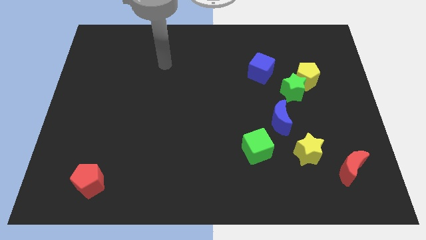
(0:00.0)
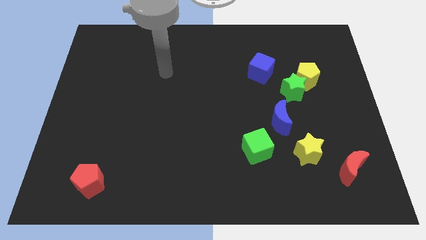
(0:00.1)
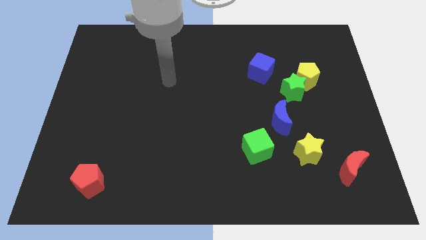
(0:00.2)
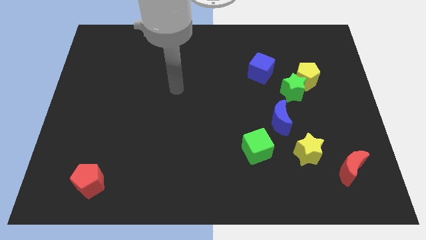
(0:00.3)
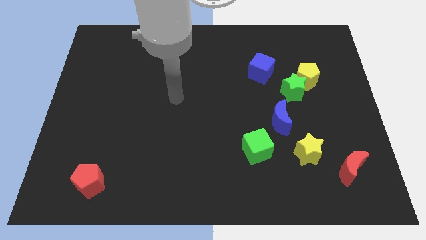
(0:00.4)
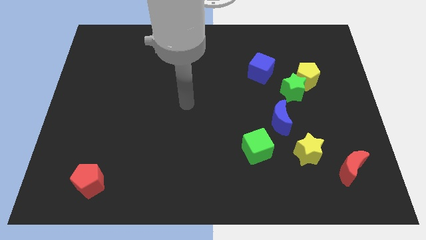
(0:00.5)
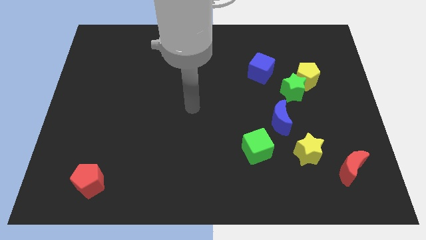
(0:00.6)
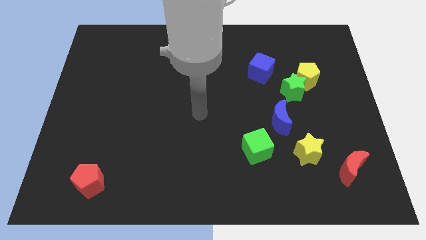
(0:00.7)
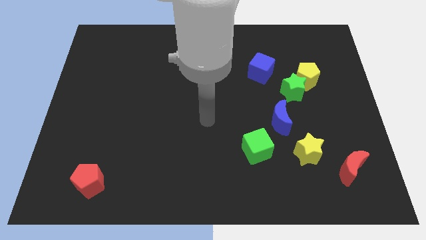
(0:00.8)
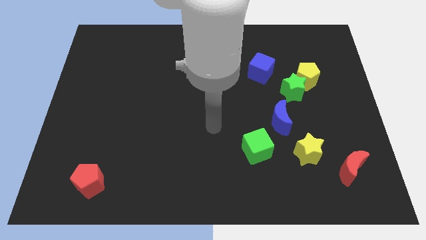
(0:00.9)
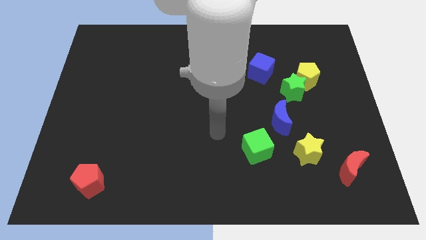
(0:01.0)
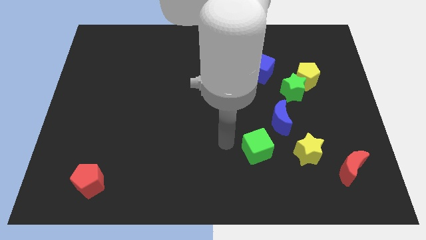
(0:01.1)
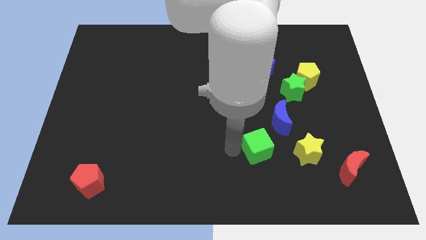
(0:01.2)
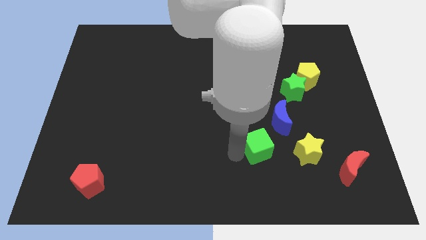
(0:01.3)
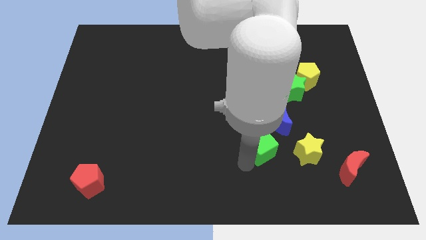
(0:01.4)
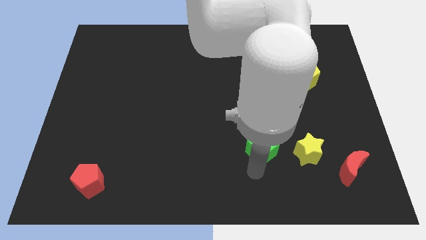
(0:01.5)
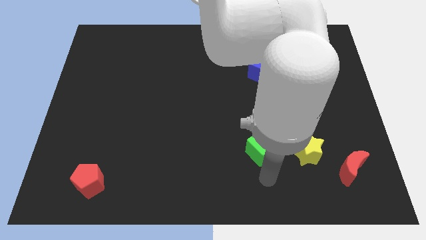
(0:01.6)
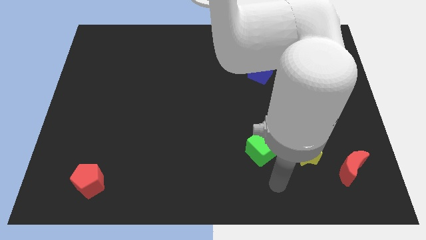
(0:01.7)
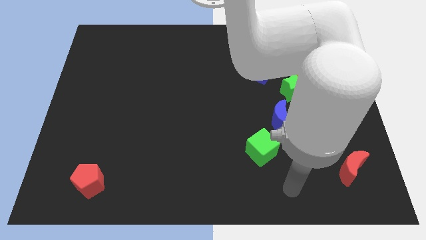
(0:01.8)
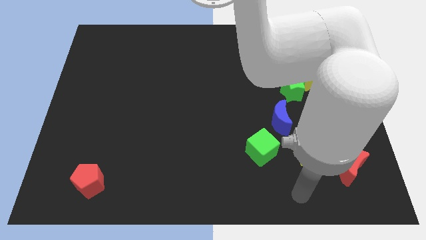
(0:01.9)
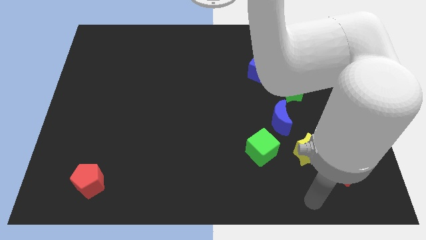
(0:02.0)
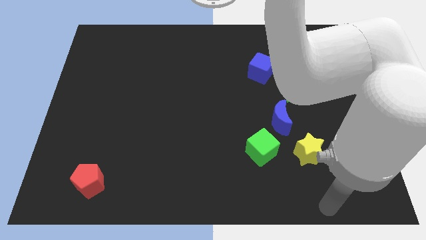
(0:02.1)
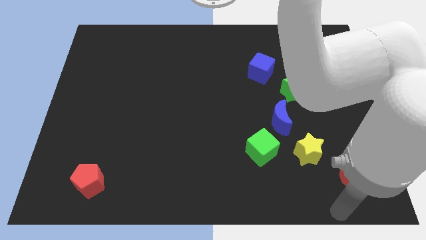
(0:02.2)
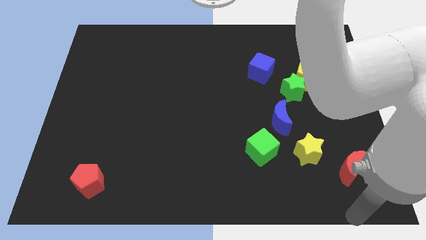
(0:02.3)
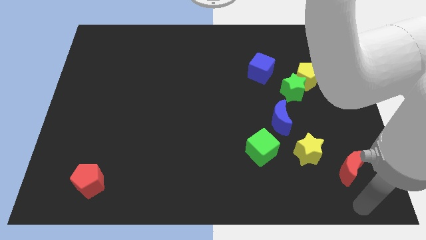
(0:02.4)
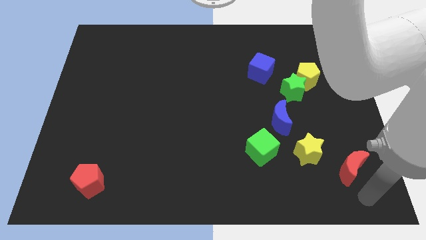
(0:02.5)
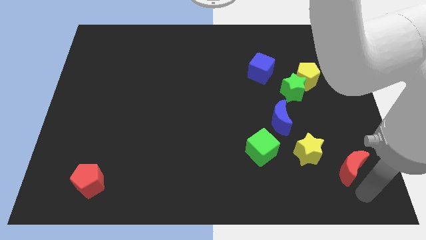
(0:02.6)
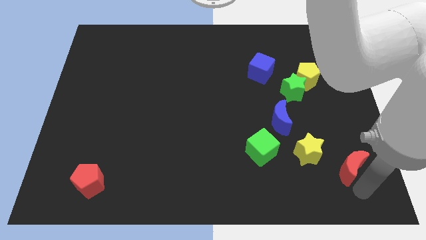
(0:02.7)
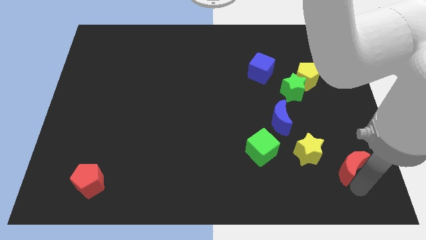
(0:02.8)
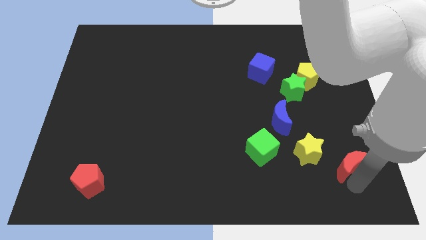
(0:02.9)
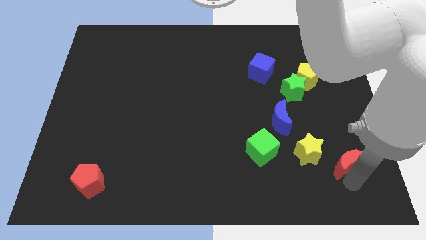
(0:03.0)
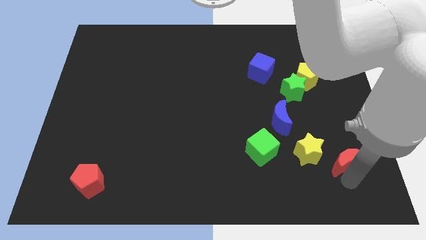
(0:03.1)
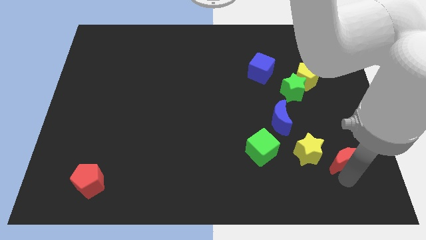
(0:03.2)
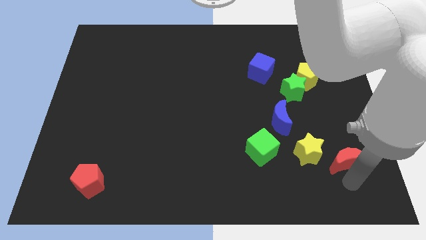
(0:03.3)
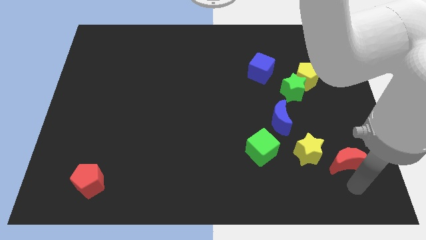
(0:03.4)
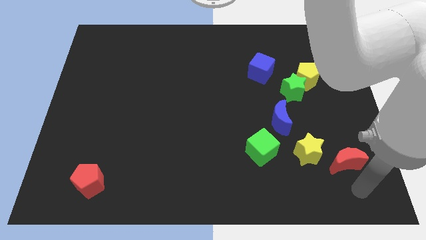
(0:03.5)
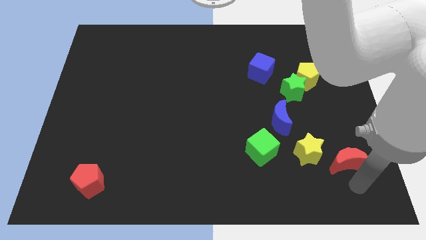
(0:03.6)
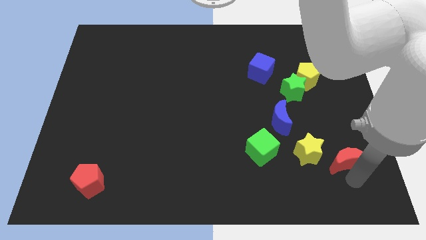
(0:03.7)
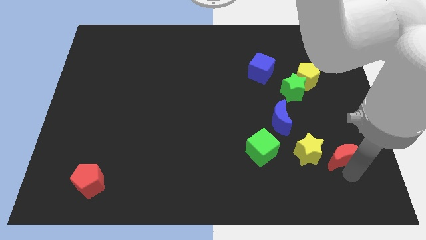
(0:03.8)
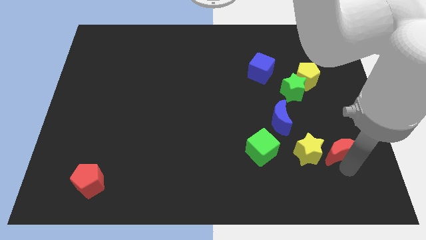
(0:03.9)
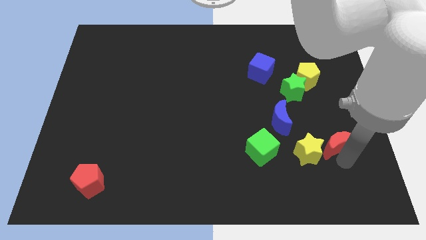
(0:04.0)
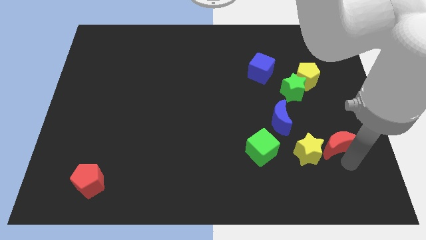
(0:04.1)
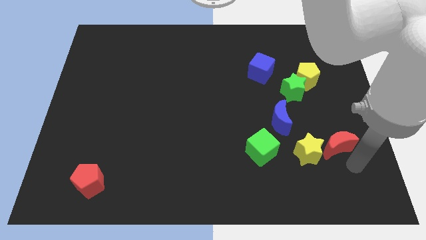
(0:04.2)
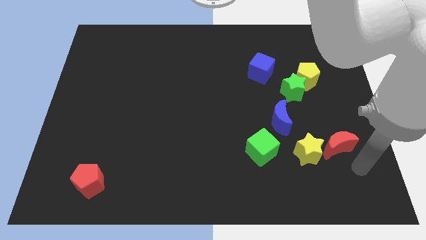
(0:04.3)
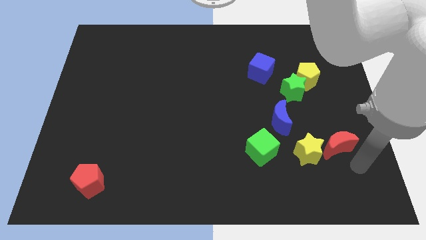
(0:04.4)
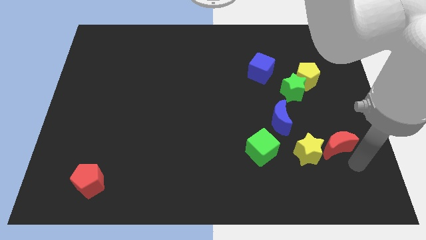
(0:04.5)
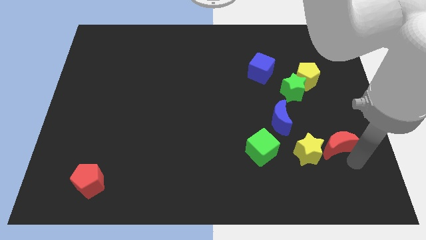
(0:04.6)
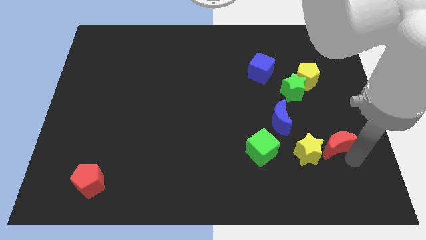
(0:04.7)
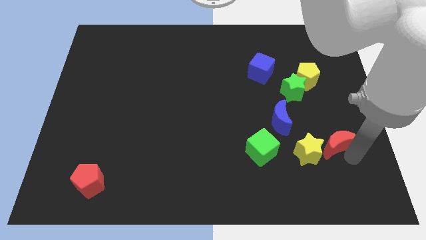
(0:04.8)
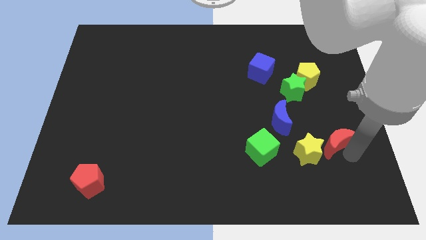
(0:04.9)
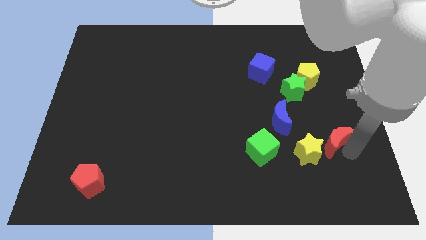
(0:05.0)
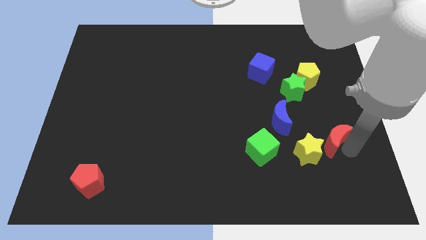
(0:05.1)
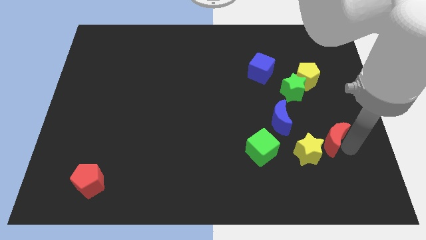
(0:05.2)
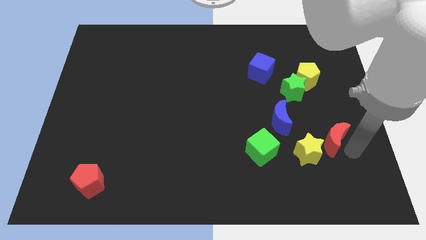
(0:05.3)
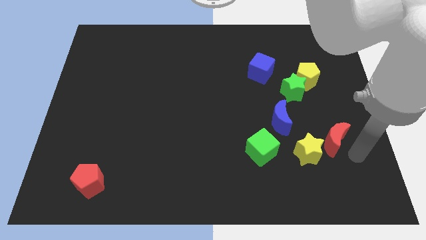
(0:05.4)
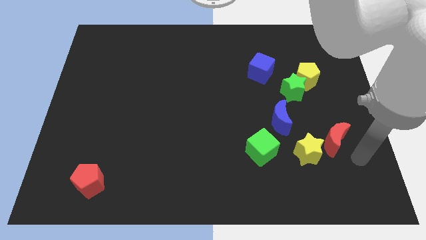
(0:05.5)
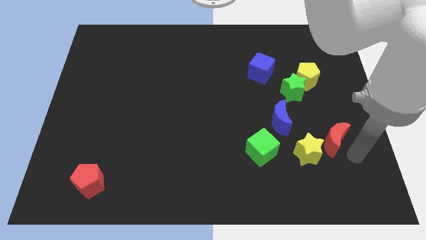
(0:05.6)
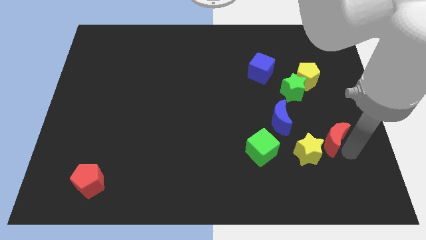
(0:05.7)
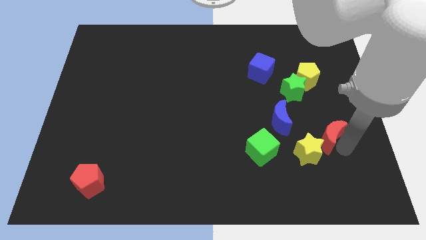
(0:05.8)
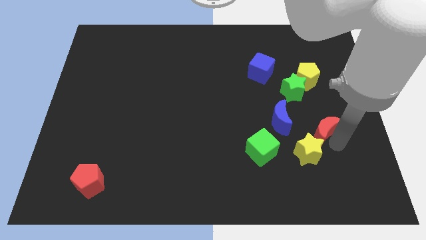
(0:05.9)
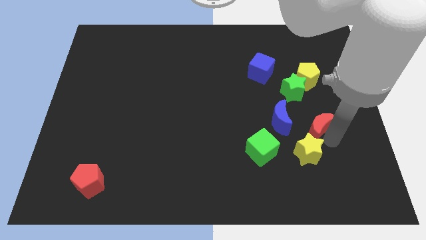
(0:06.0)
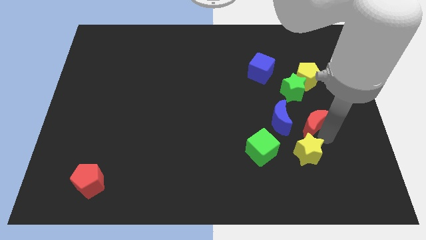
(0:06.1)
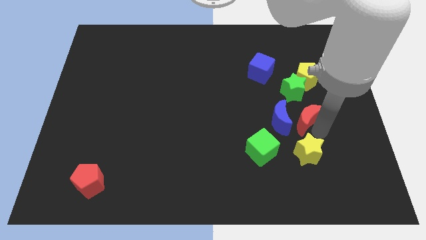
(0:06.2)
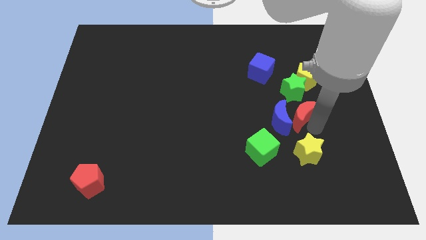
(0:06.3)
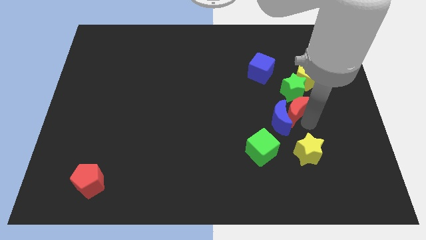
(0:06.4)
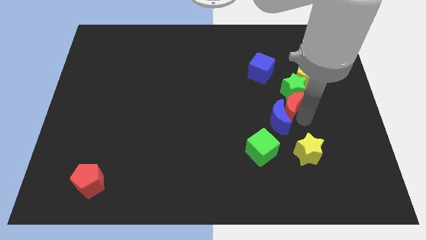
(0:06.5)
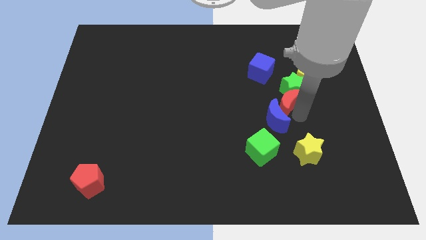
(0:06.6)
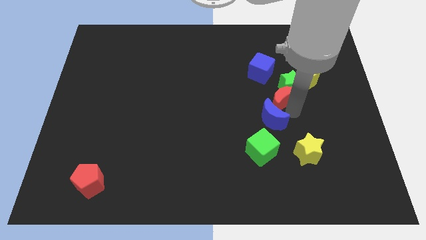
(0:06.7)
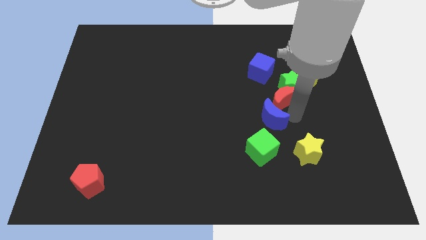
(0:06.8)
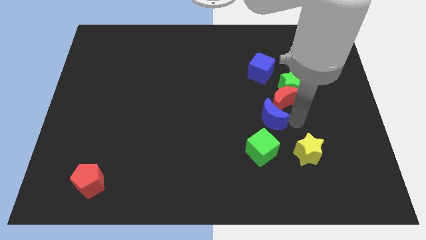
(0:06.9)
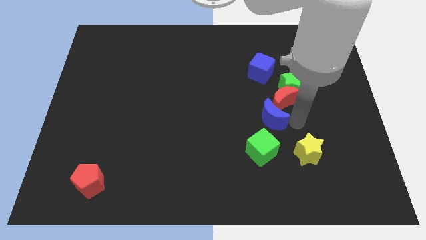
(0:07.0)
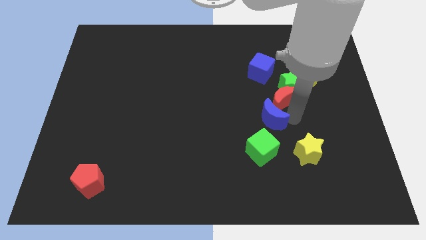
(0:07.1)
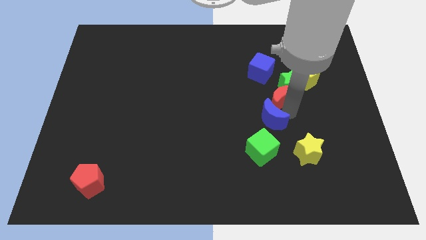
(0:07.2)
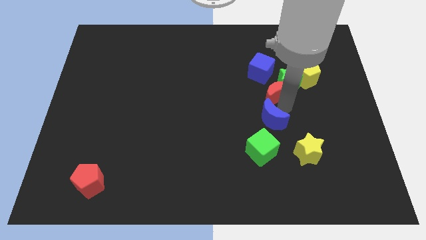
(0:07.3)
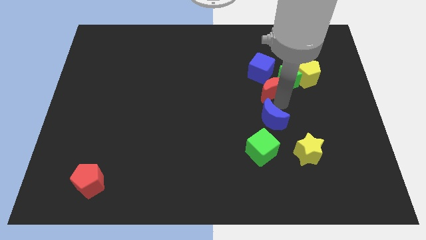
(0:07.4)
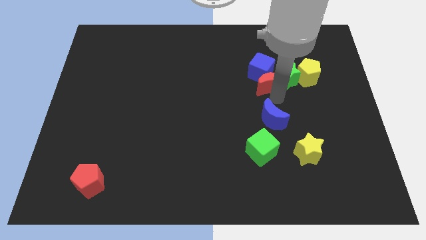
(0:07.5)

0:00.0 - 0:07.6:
put the red moon next to the blue cube
